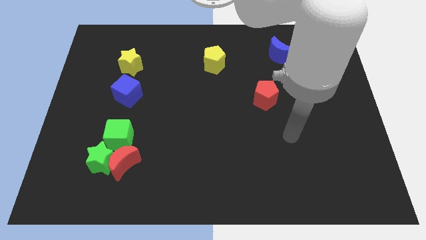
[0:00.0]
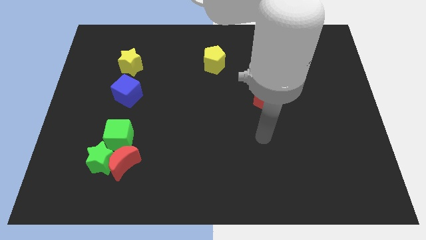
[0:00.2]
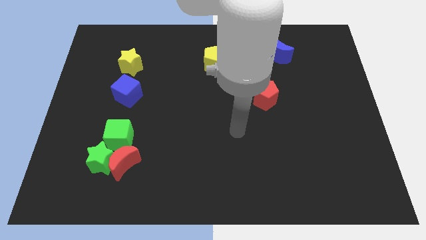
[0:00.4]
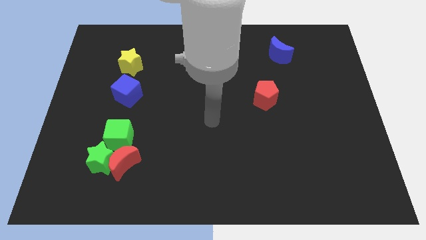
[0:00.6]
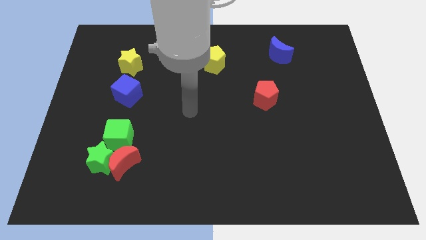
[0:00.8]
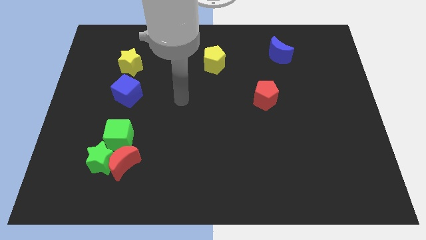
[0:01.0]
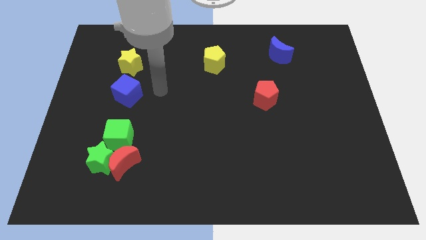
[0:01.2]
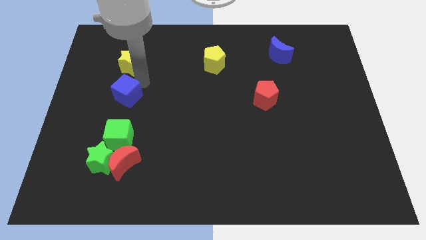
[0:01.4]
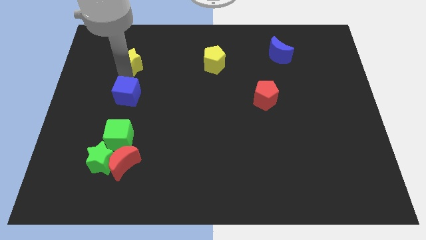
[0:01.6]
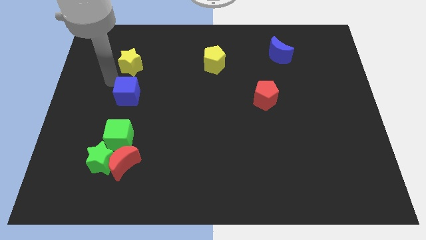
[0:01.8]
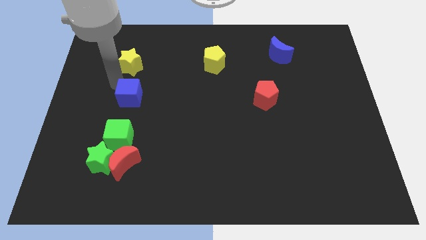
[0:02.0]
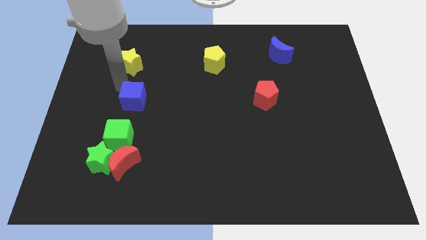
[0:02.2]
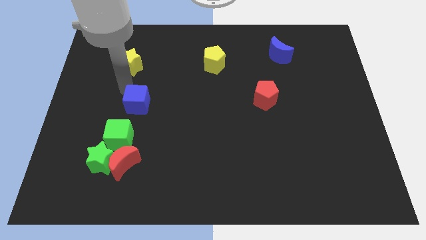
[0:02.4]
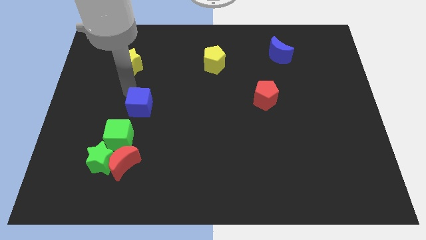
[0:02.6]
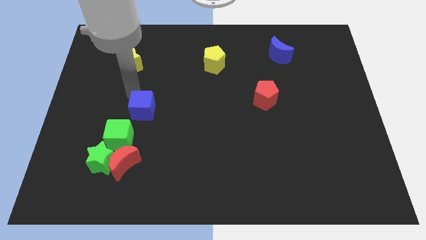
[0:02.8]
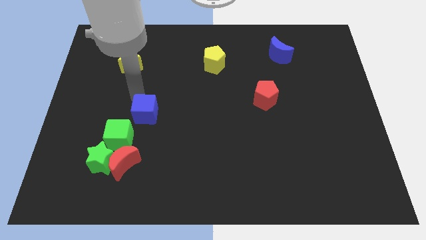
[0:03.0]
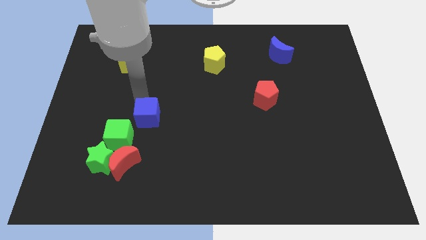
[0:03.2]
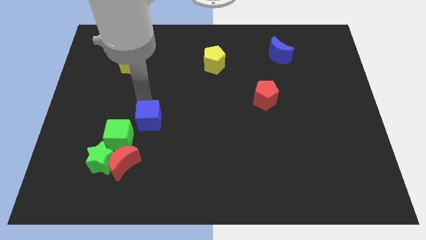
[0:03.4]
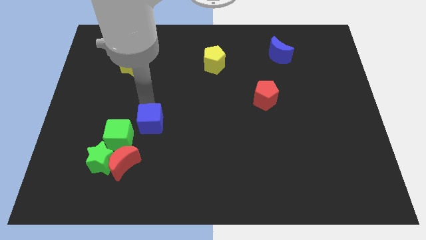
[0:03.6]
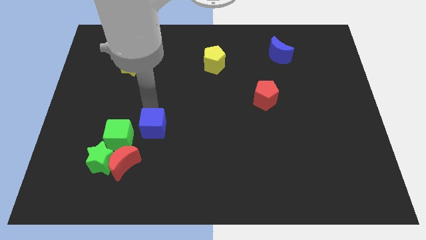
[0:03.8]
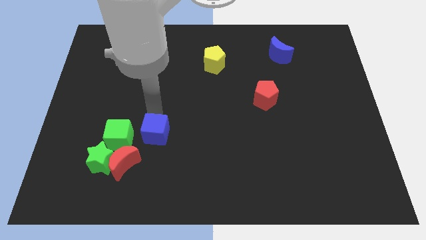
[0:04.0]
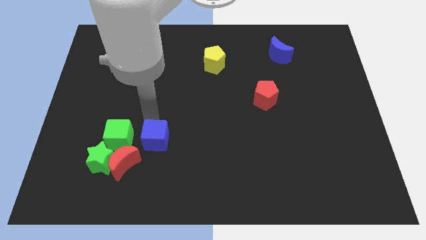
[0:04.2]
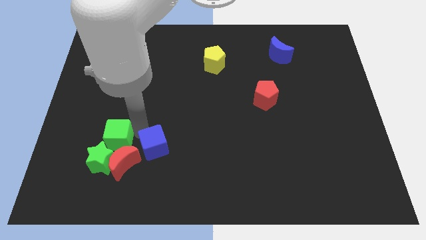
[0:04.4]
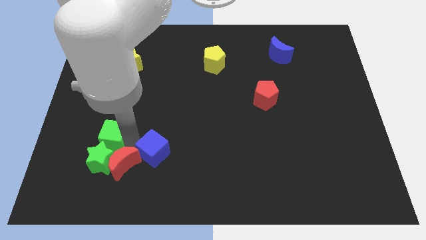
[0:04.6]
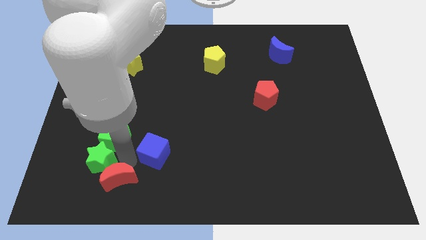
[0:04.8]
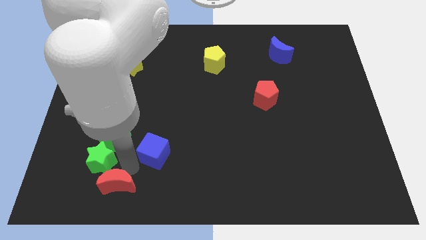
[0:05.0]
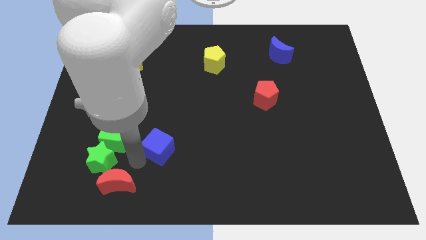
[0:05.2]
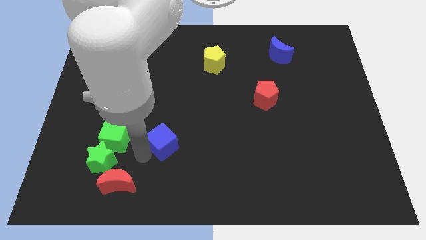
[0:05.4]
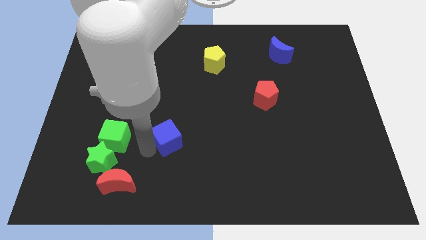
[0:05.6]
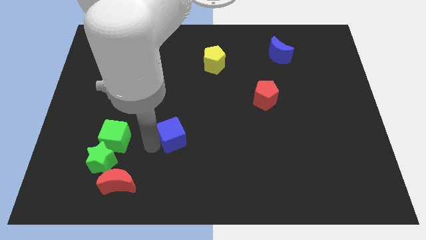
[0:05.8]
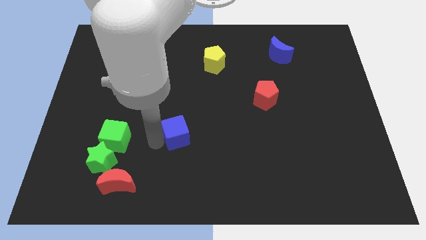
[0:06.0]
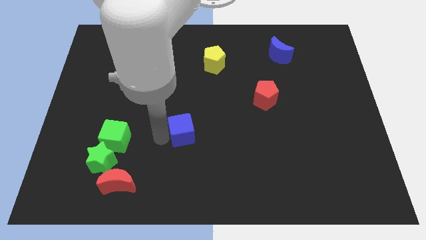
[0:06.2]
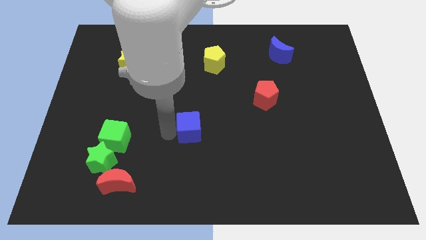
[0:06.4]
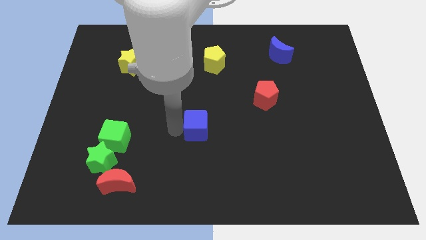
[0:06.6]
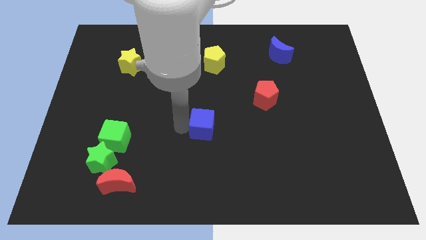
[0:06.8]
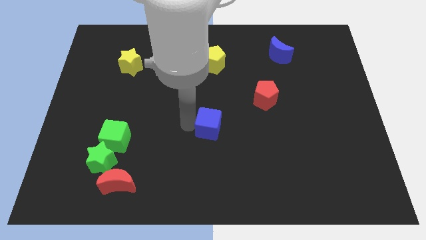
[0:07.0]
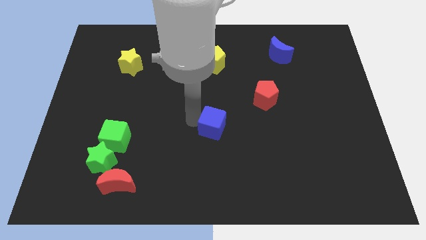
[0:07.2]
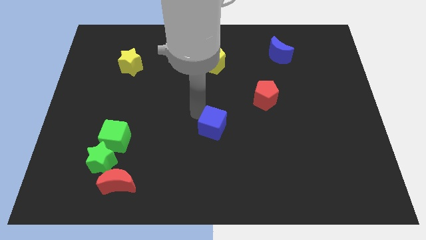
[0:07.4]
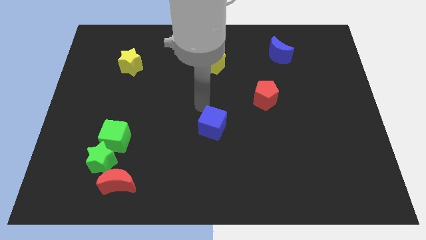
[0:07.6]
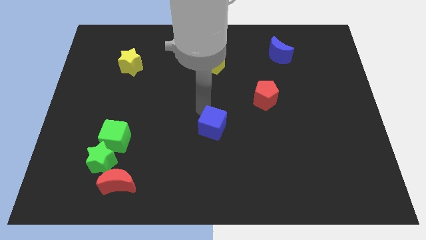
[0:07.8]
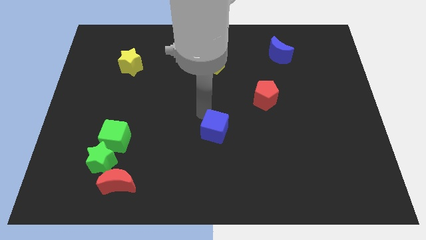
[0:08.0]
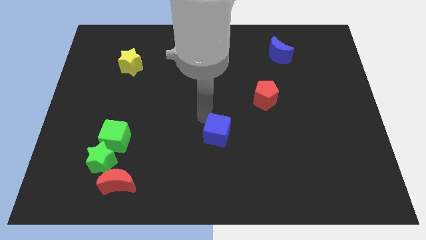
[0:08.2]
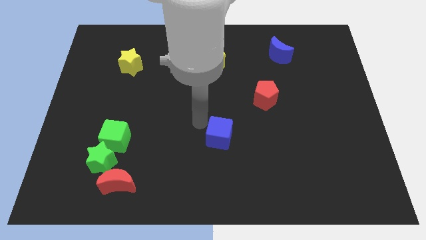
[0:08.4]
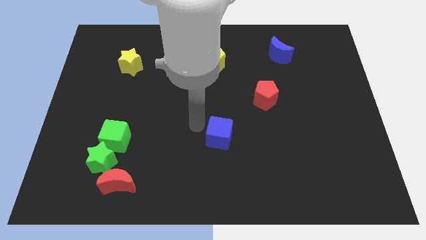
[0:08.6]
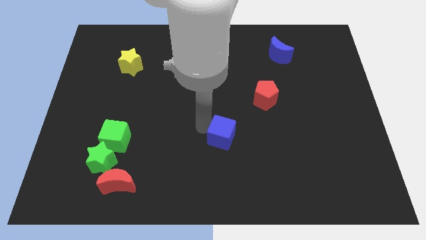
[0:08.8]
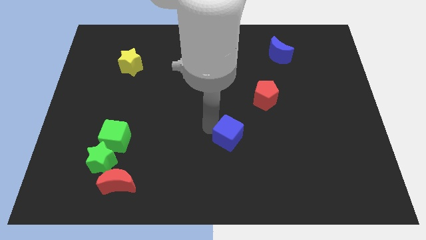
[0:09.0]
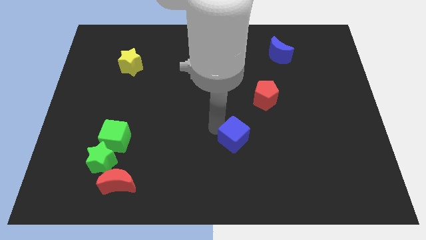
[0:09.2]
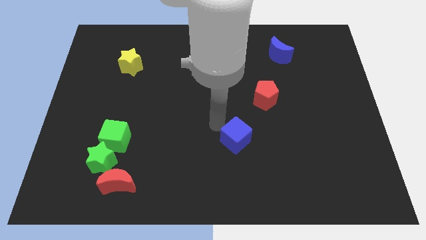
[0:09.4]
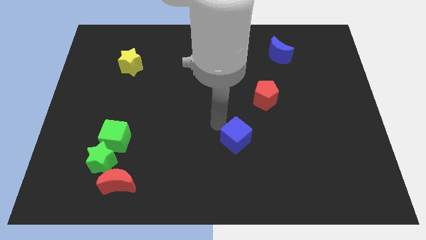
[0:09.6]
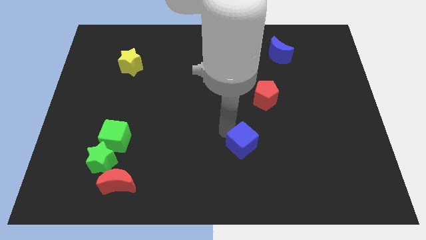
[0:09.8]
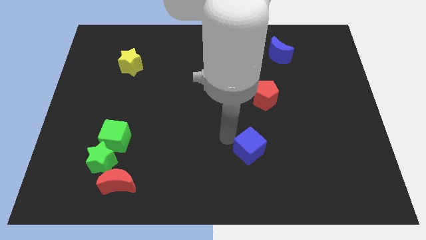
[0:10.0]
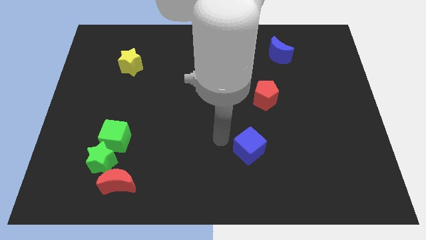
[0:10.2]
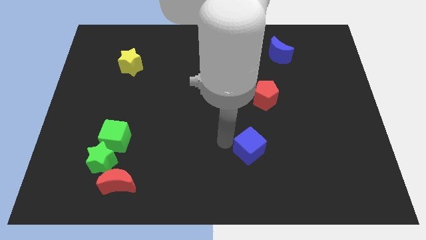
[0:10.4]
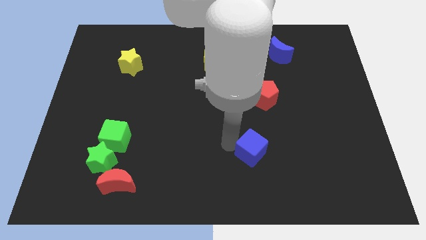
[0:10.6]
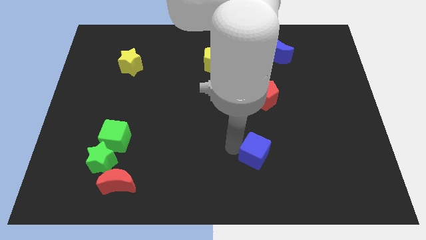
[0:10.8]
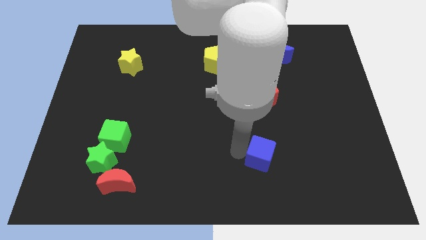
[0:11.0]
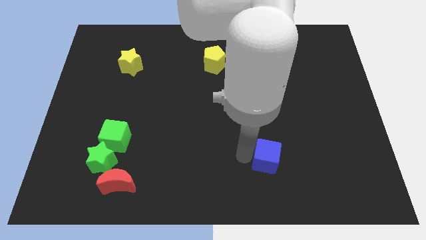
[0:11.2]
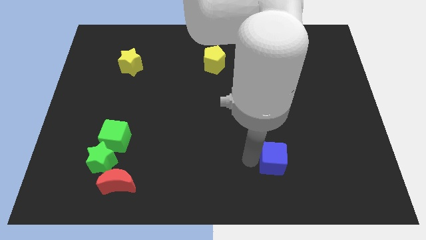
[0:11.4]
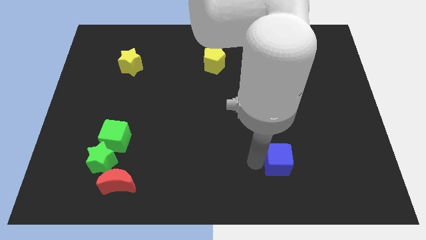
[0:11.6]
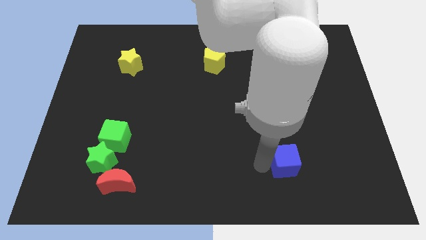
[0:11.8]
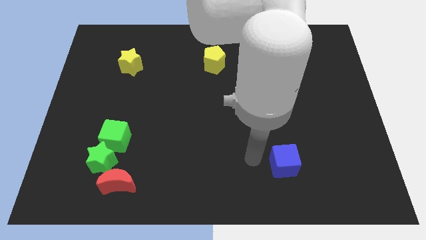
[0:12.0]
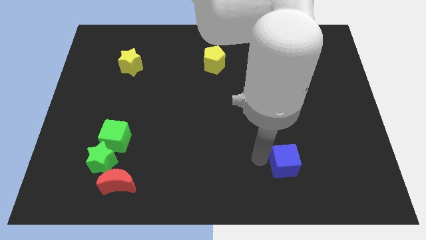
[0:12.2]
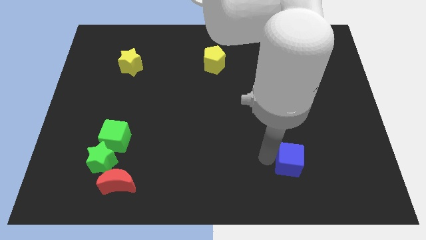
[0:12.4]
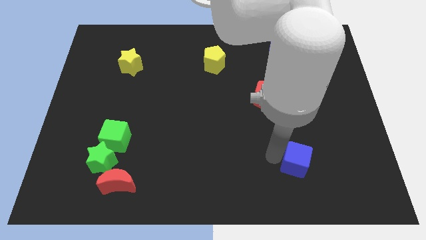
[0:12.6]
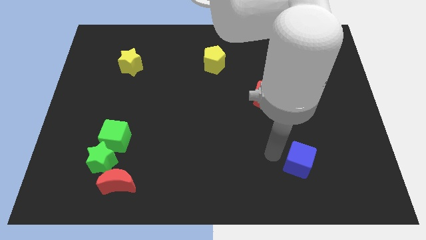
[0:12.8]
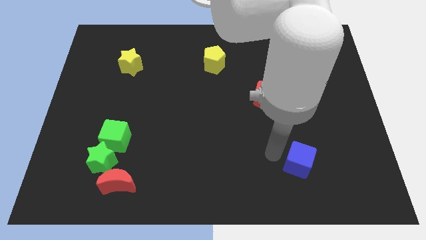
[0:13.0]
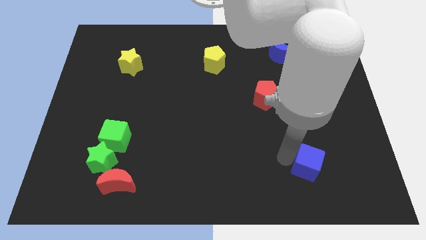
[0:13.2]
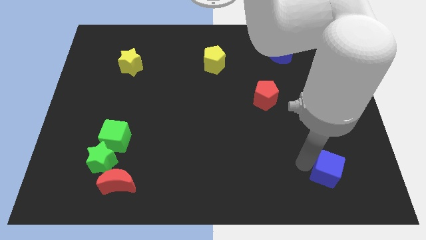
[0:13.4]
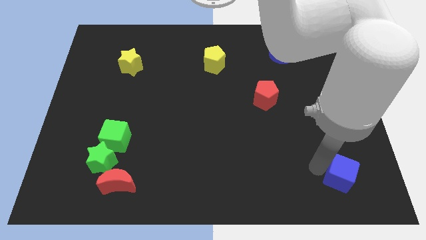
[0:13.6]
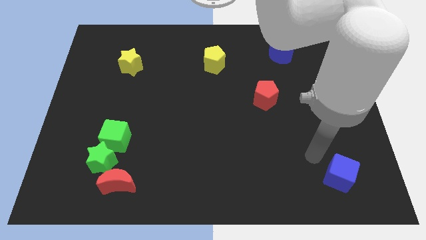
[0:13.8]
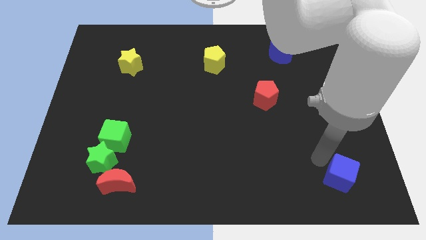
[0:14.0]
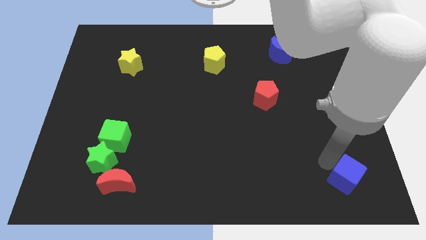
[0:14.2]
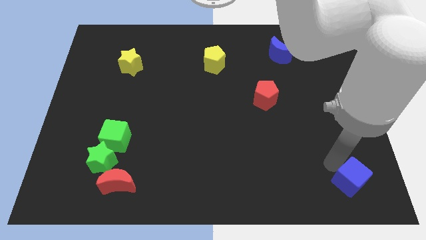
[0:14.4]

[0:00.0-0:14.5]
slide the blue cube to the bottom right of the board
